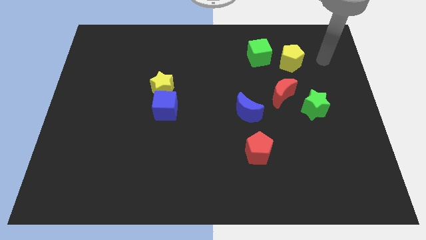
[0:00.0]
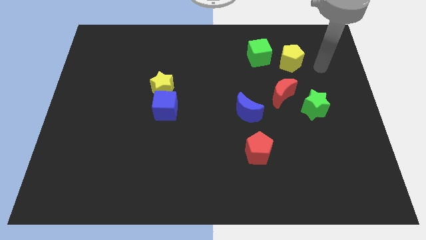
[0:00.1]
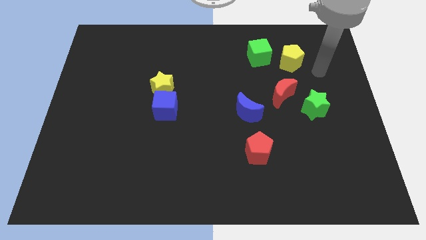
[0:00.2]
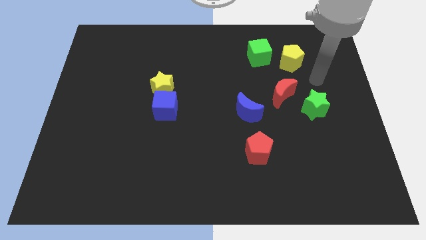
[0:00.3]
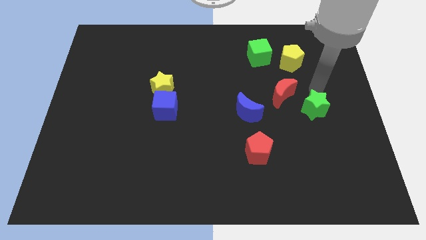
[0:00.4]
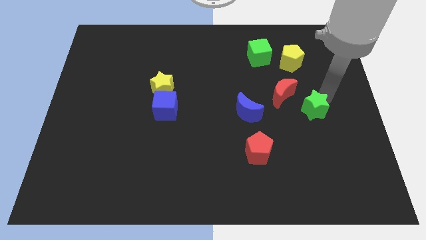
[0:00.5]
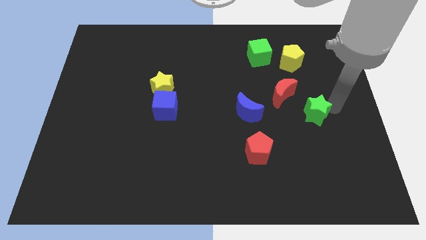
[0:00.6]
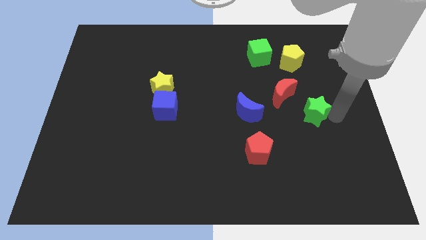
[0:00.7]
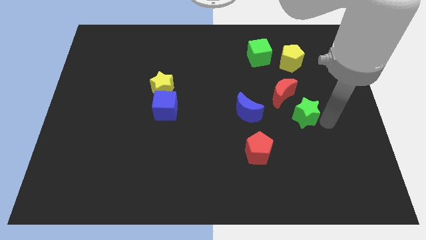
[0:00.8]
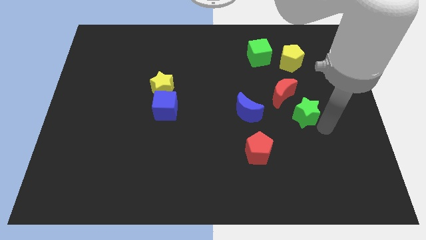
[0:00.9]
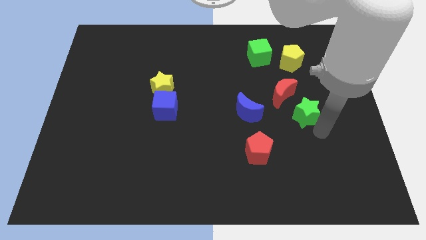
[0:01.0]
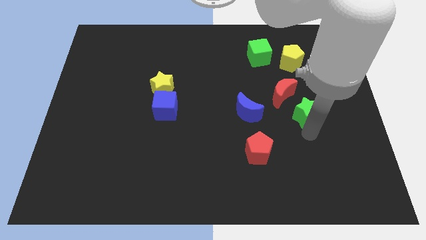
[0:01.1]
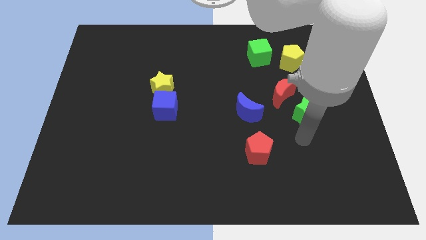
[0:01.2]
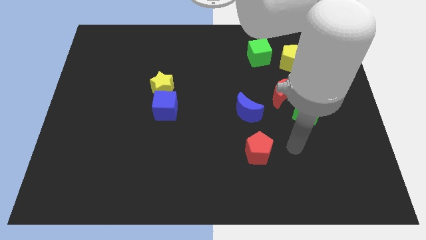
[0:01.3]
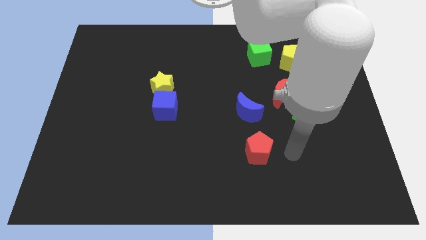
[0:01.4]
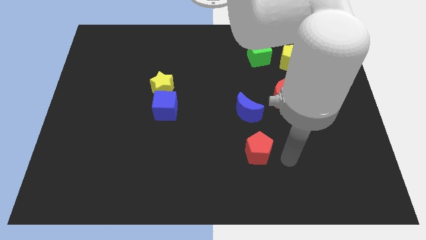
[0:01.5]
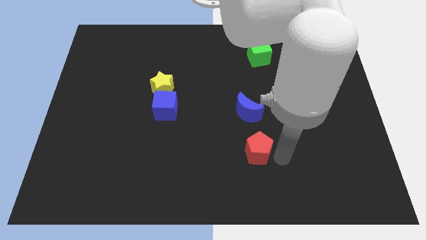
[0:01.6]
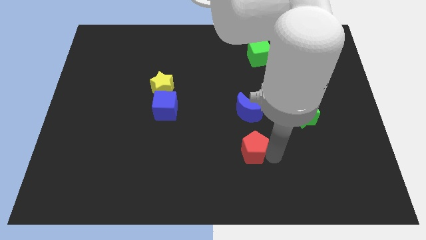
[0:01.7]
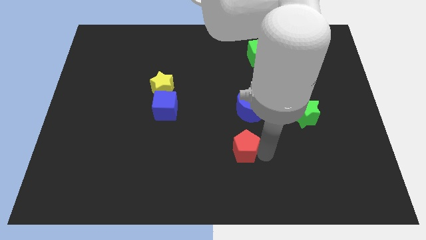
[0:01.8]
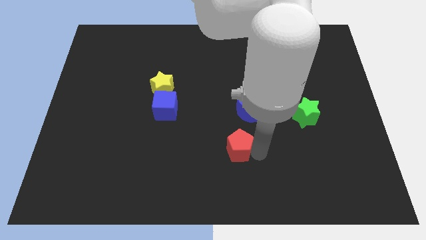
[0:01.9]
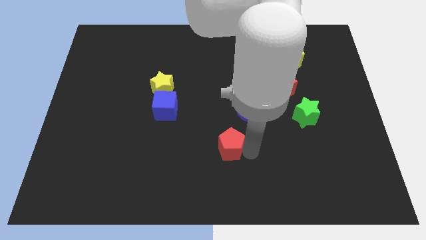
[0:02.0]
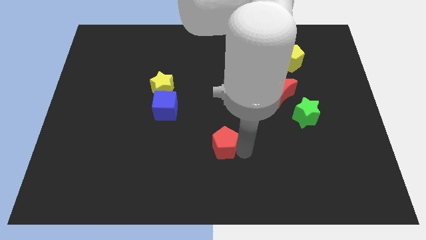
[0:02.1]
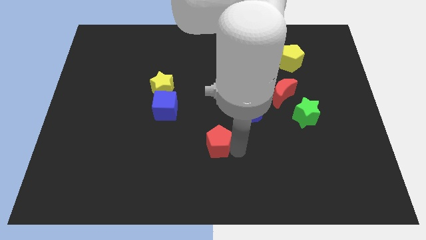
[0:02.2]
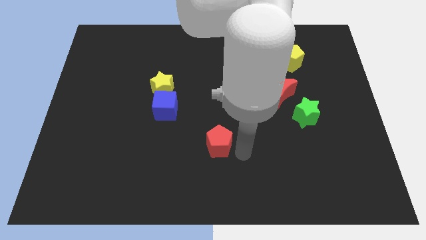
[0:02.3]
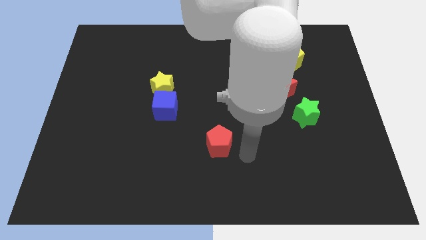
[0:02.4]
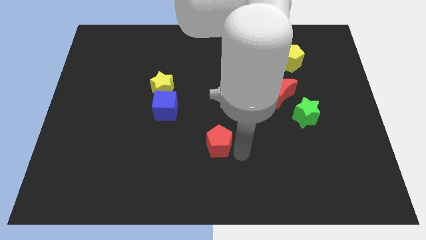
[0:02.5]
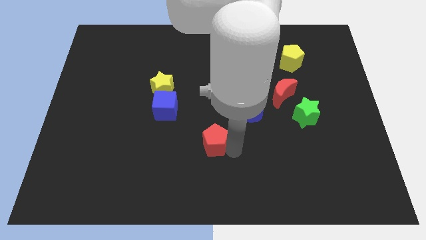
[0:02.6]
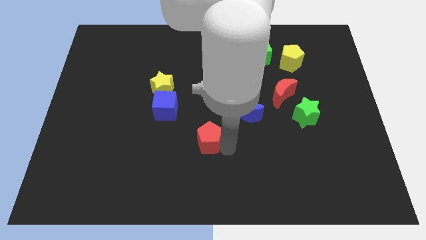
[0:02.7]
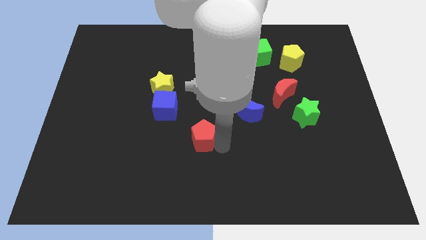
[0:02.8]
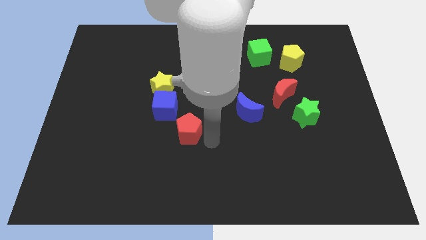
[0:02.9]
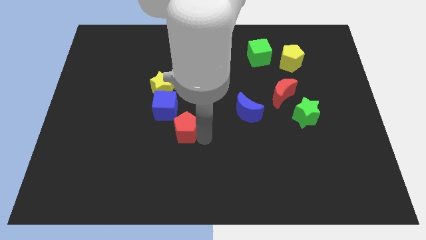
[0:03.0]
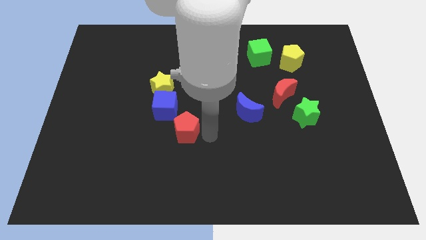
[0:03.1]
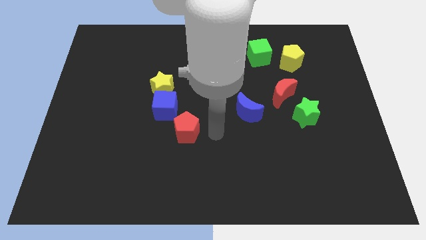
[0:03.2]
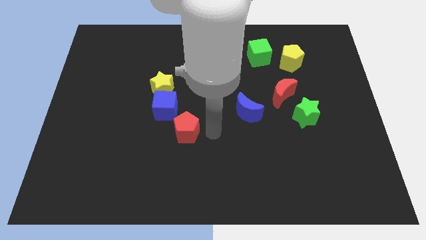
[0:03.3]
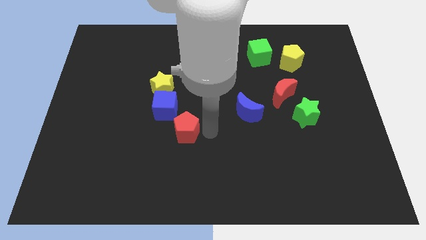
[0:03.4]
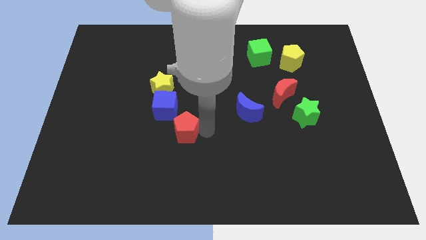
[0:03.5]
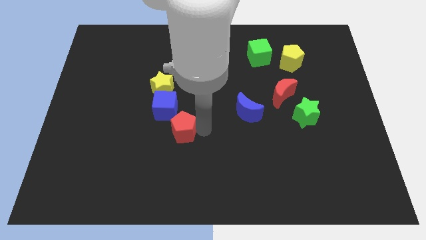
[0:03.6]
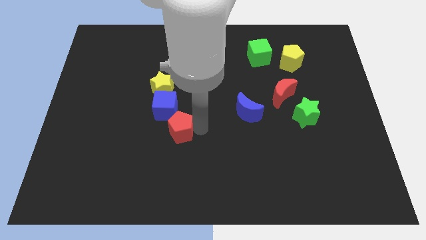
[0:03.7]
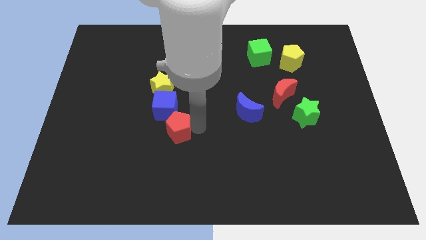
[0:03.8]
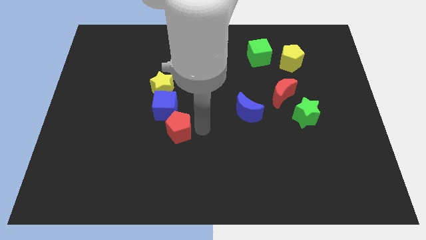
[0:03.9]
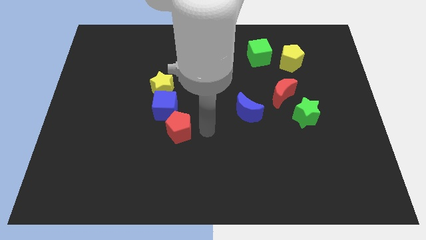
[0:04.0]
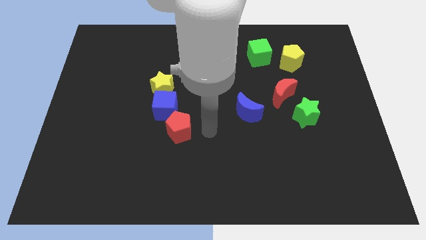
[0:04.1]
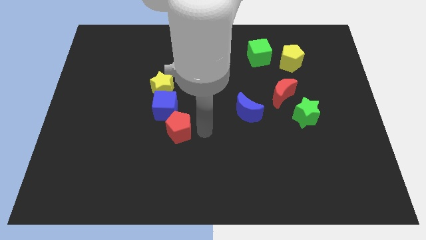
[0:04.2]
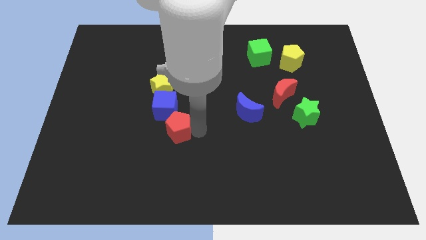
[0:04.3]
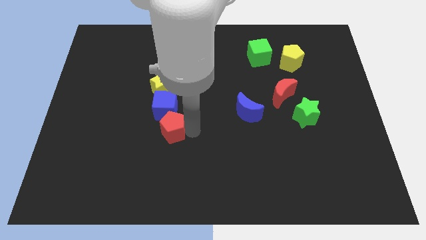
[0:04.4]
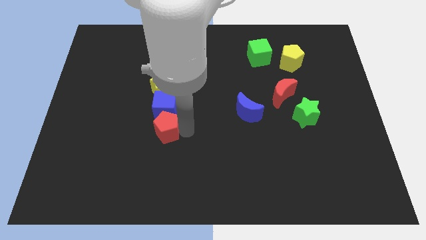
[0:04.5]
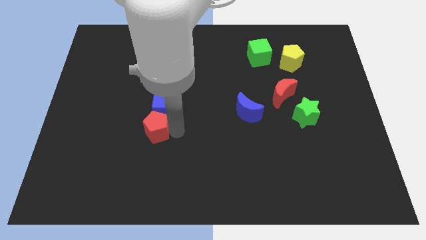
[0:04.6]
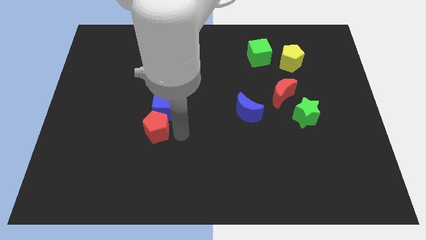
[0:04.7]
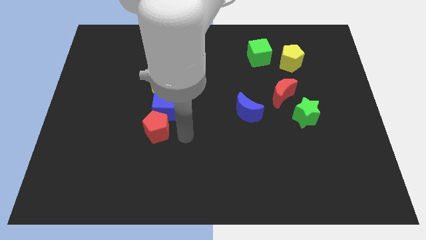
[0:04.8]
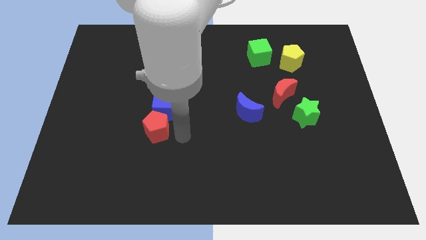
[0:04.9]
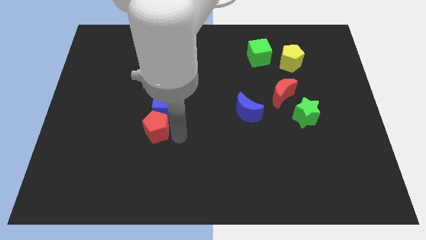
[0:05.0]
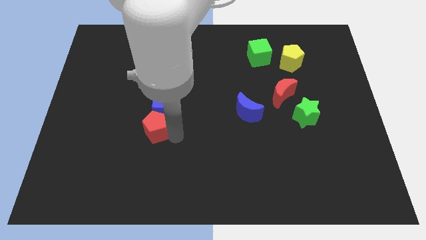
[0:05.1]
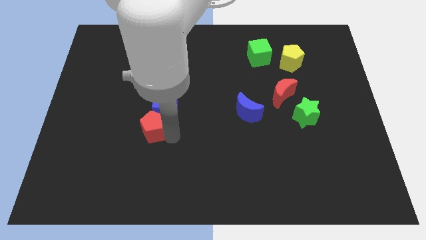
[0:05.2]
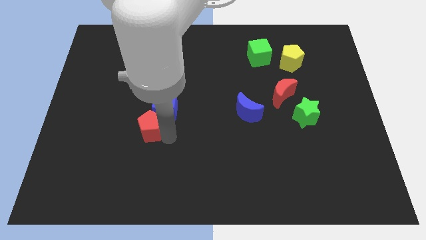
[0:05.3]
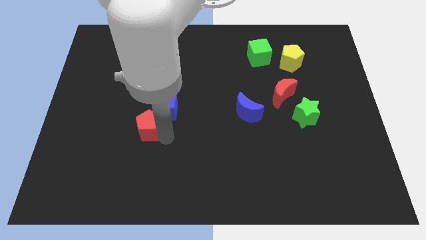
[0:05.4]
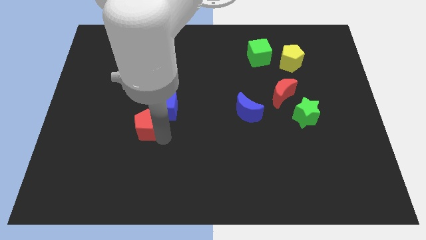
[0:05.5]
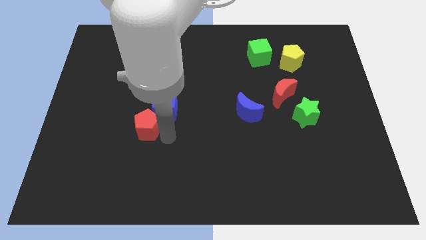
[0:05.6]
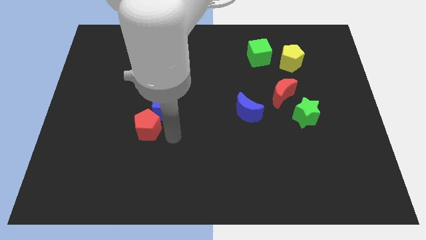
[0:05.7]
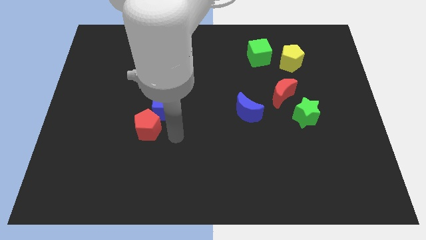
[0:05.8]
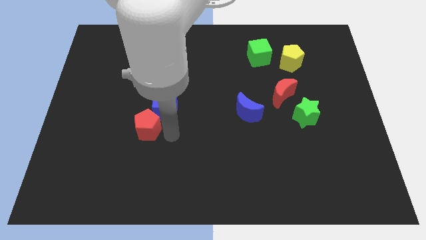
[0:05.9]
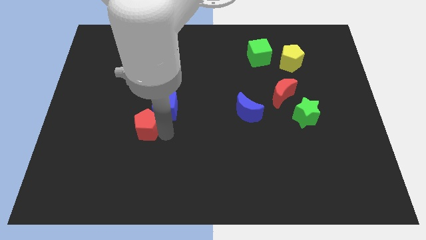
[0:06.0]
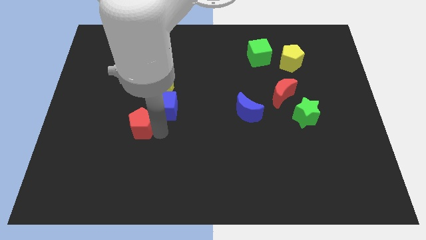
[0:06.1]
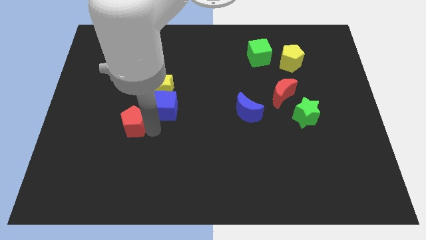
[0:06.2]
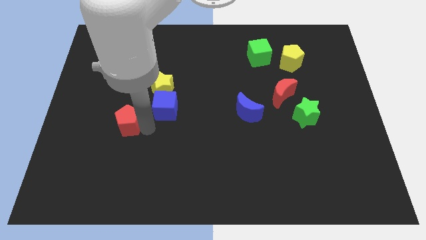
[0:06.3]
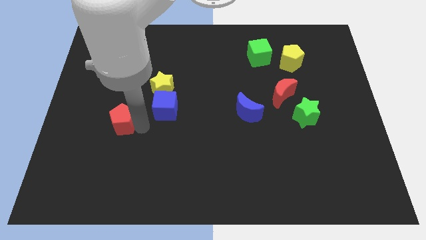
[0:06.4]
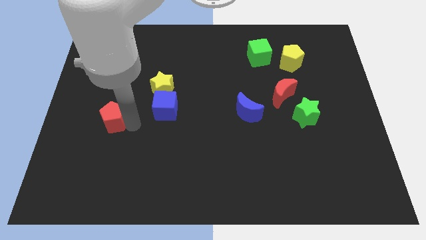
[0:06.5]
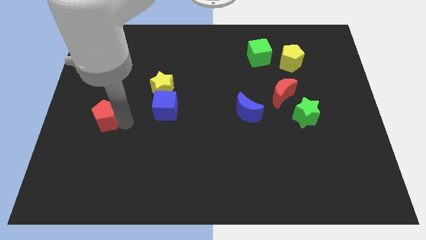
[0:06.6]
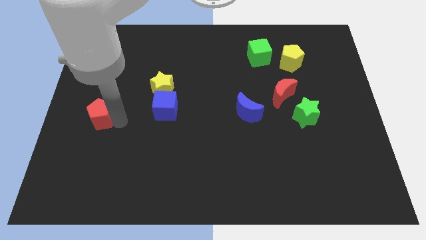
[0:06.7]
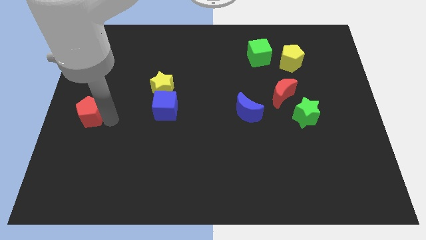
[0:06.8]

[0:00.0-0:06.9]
push the red pentagon to the left side

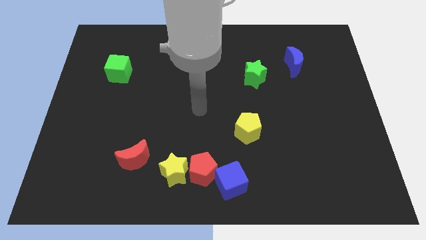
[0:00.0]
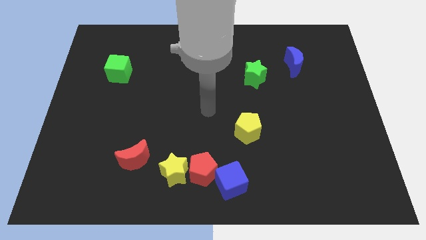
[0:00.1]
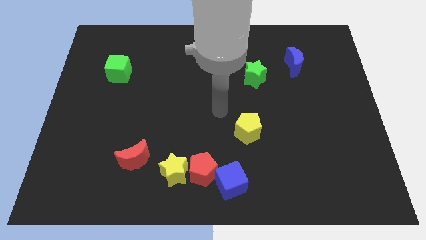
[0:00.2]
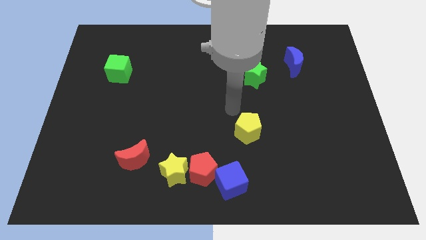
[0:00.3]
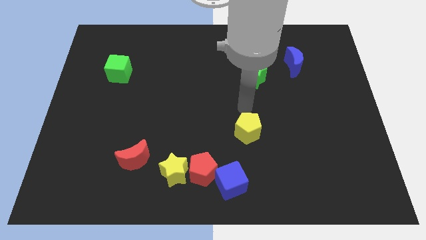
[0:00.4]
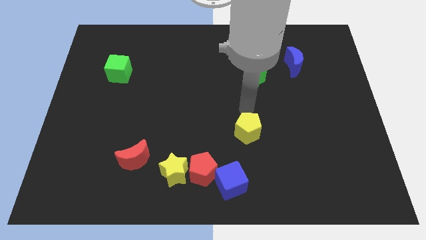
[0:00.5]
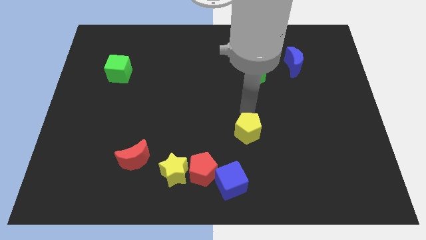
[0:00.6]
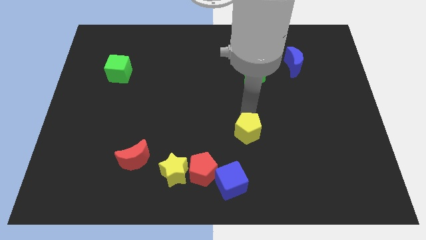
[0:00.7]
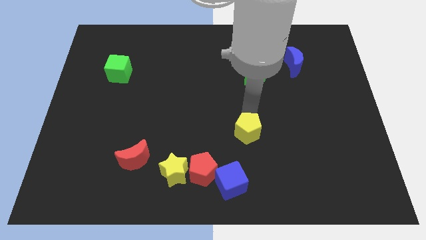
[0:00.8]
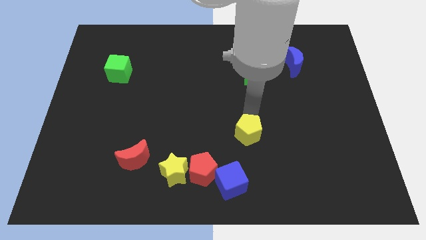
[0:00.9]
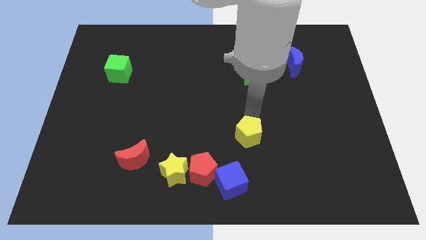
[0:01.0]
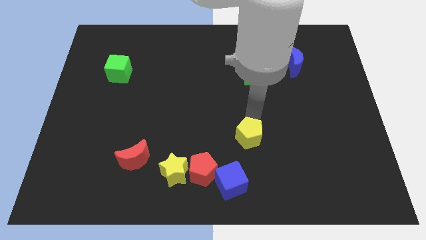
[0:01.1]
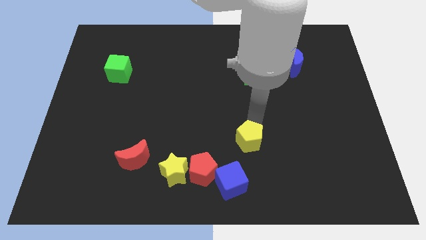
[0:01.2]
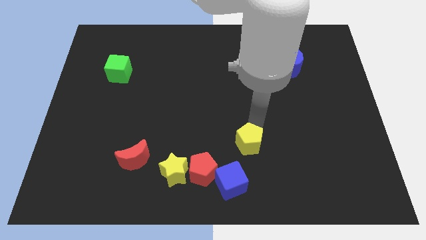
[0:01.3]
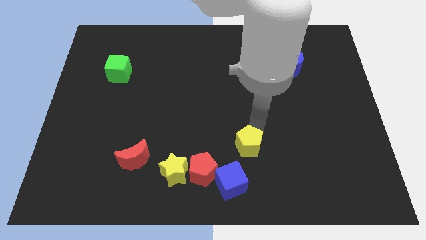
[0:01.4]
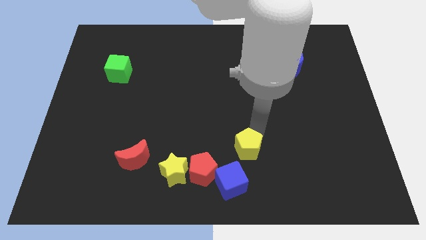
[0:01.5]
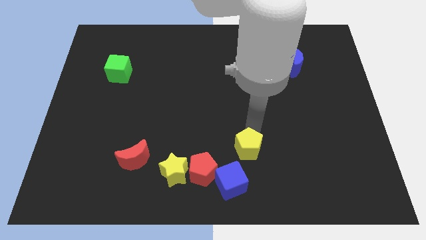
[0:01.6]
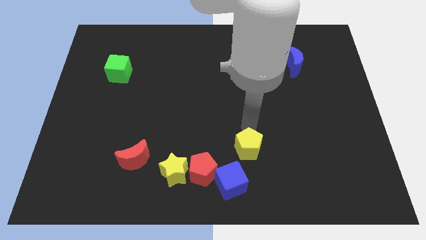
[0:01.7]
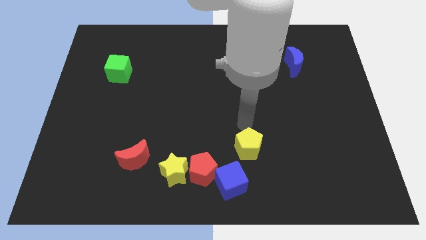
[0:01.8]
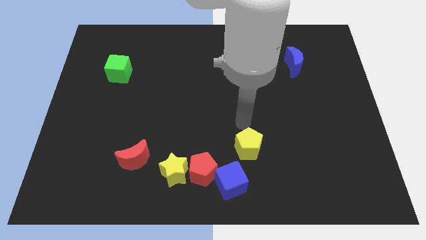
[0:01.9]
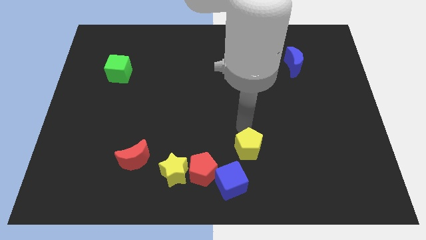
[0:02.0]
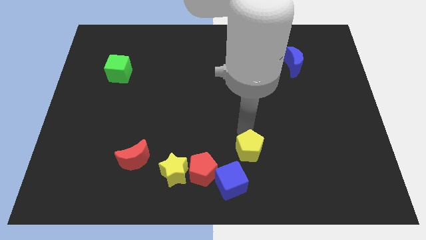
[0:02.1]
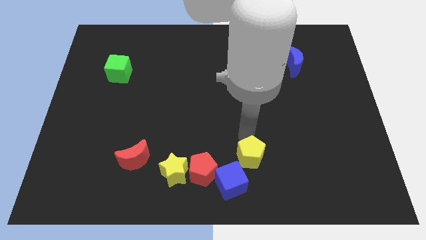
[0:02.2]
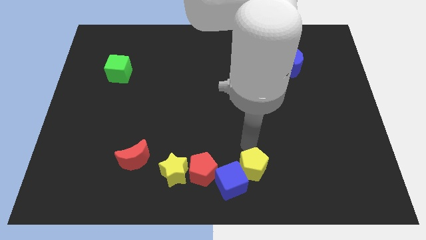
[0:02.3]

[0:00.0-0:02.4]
move the yellow pentagon to the bottom side
